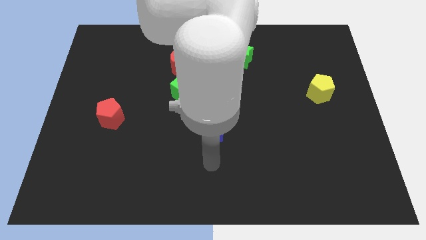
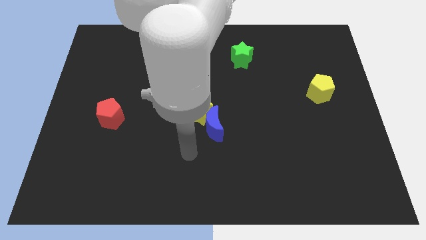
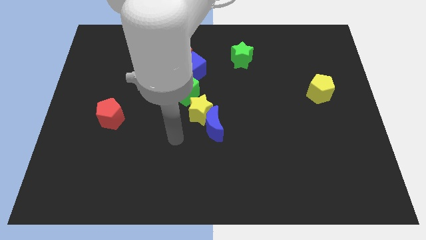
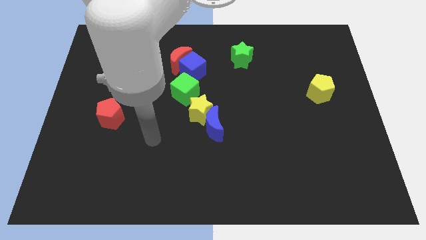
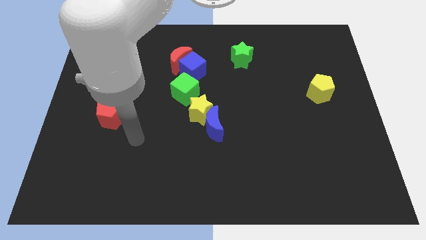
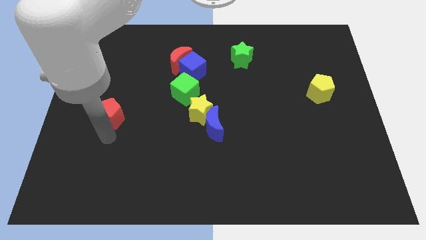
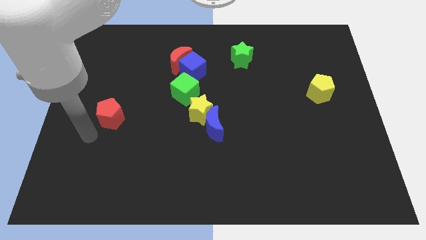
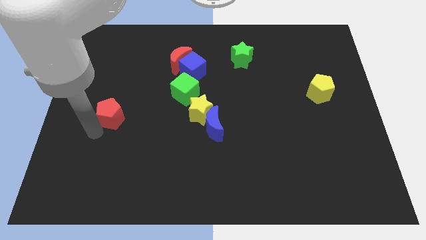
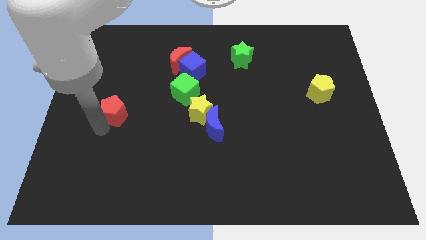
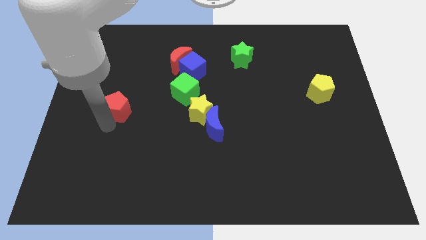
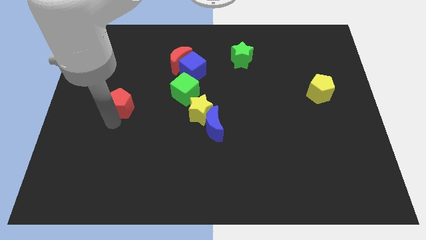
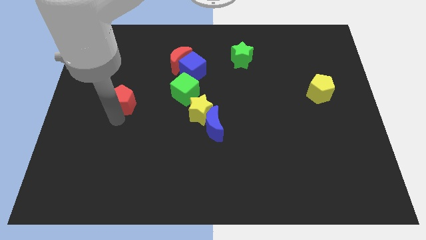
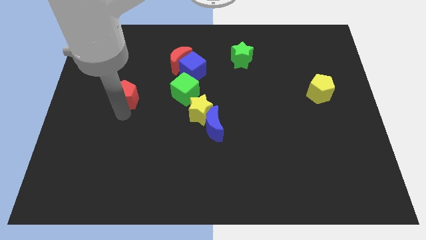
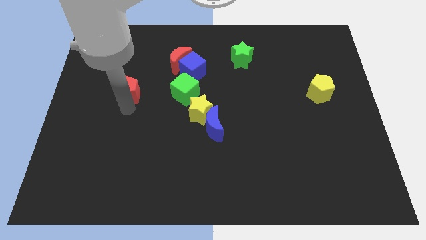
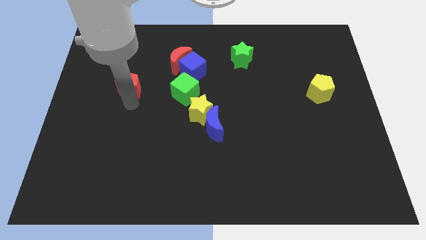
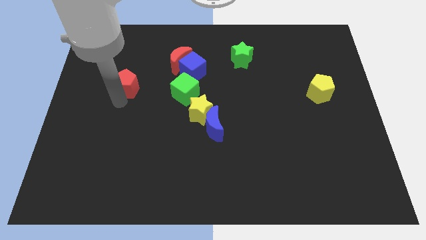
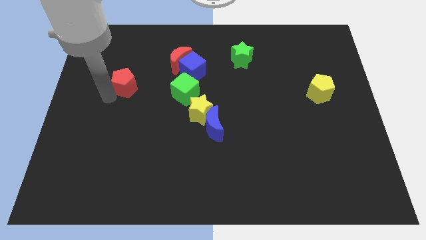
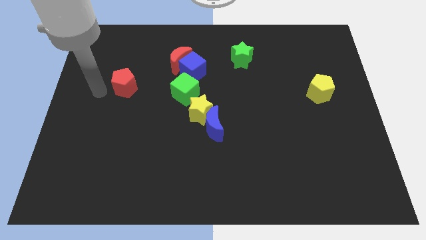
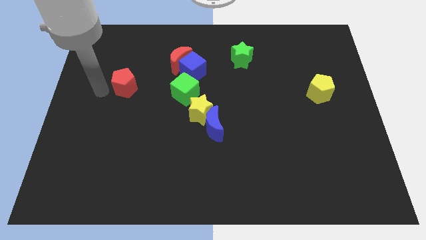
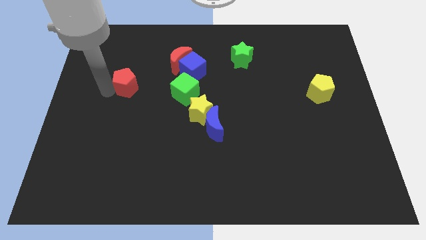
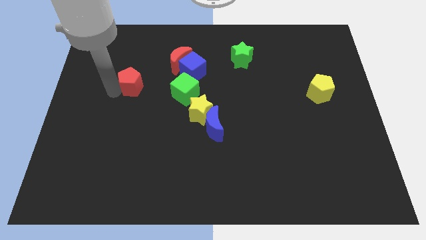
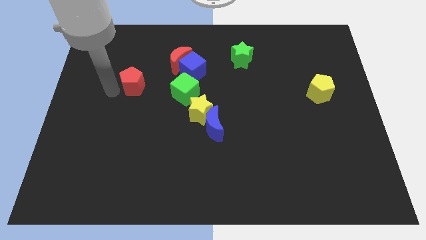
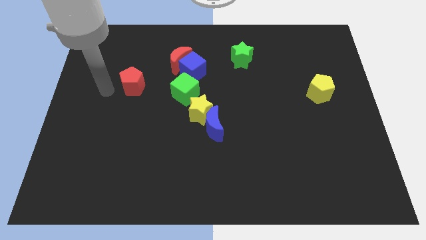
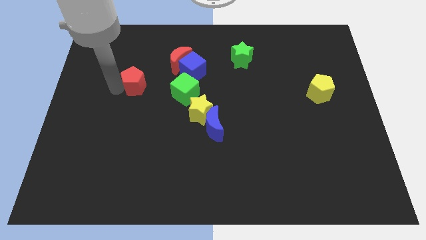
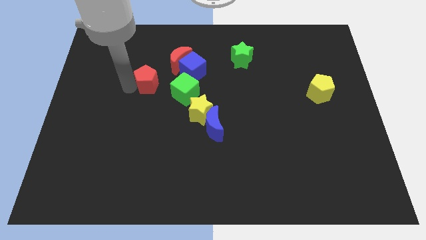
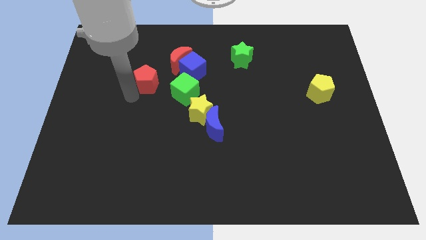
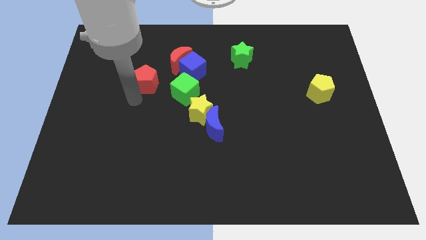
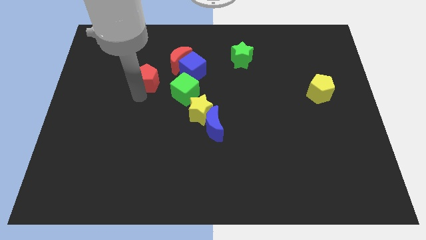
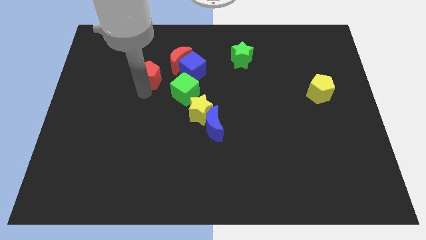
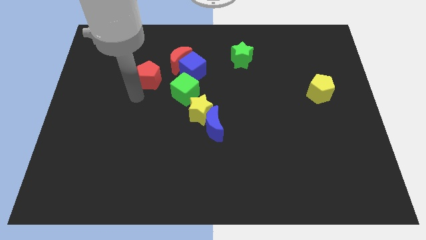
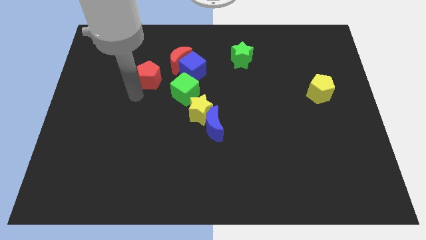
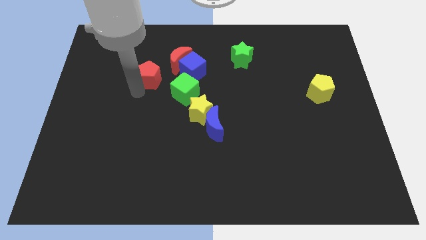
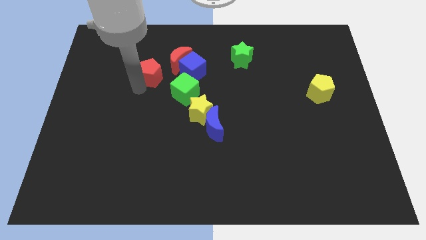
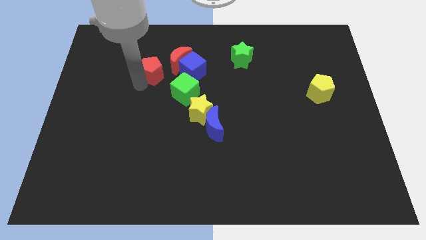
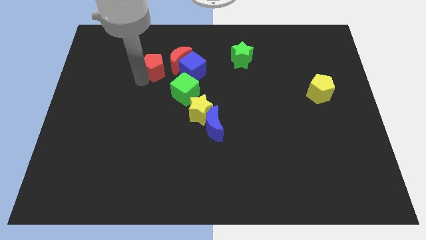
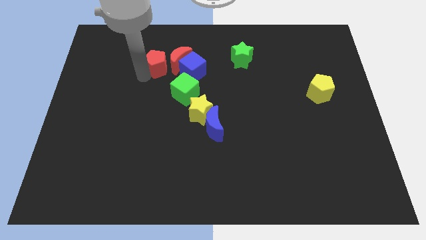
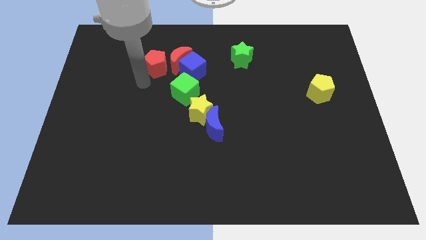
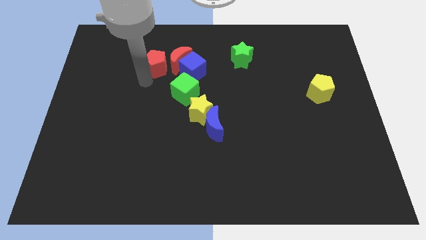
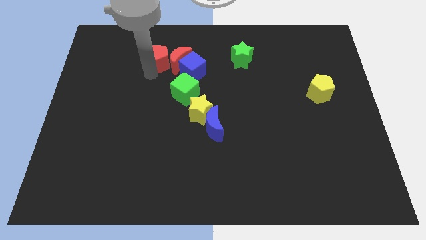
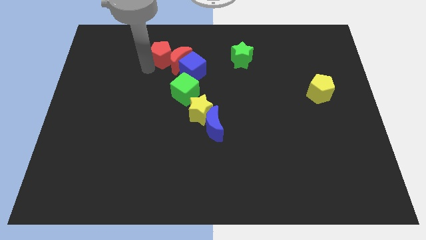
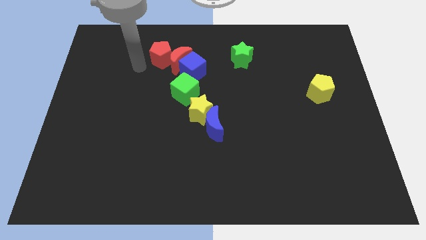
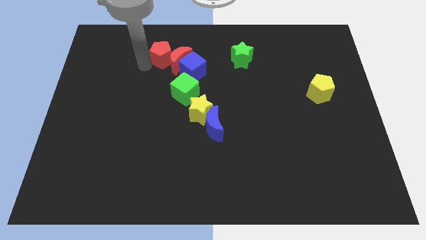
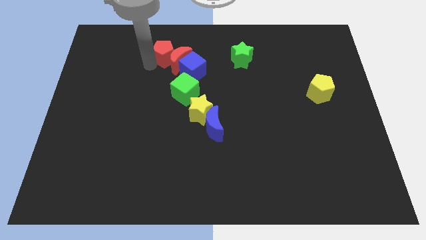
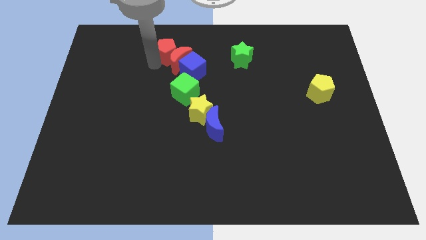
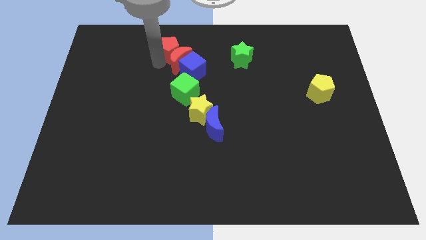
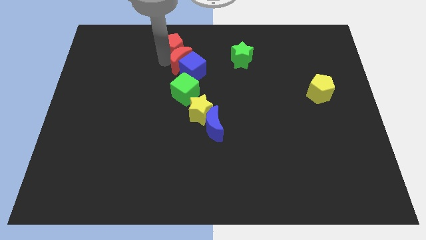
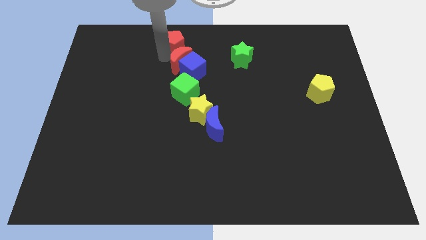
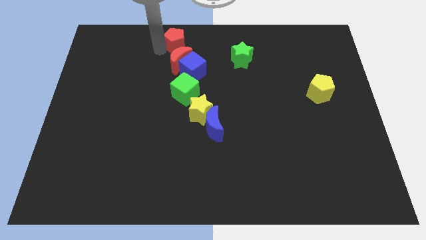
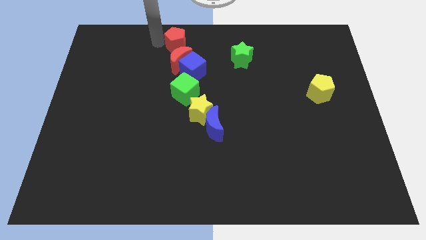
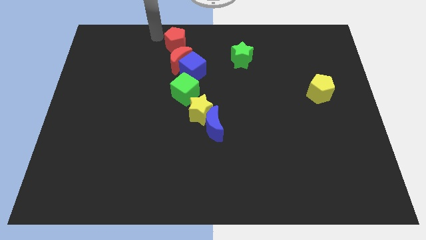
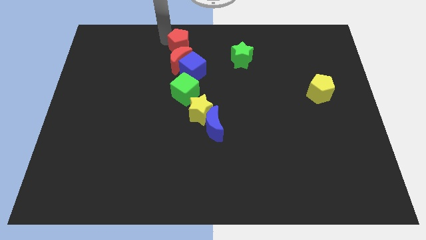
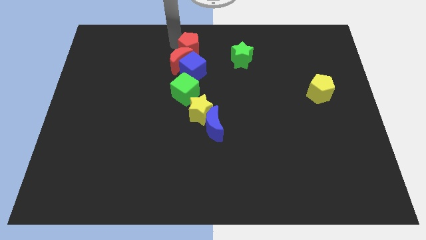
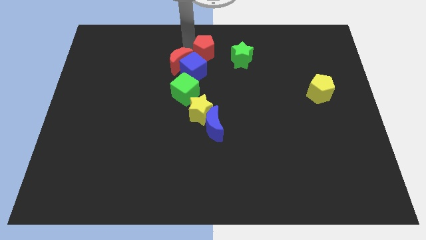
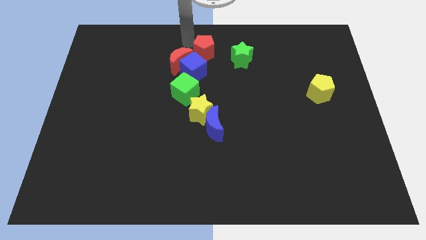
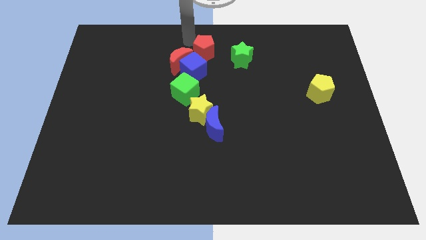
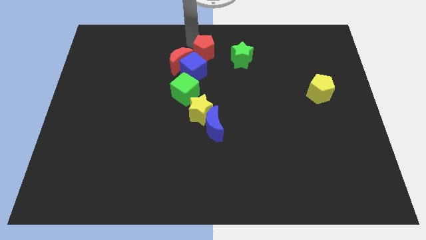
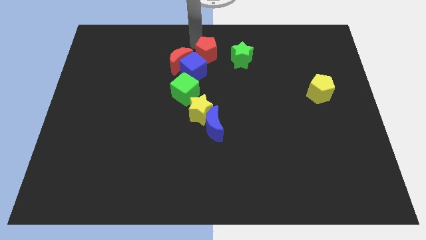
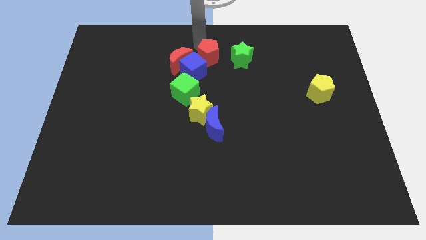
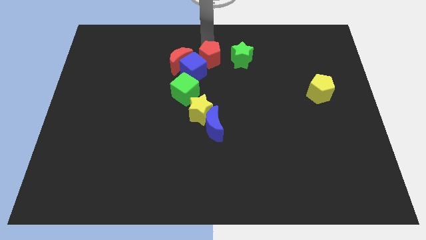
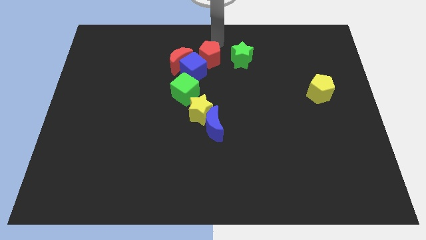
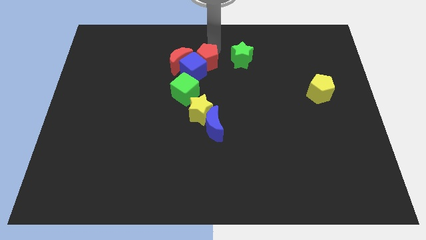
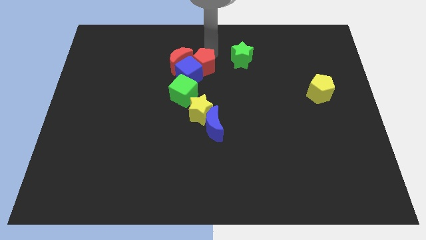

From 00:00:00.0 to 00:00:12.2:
put the red pentagon diagonally down and to the right of the red moon
